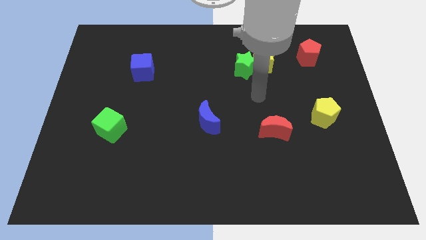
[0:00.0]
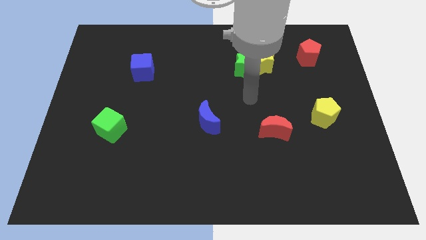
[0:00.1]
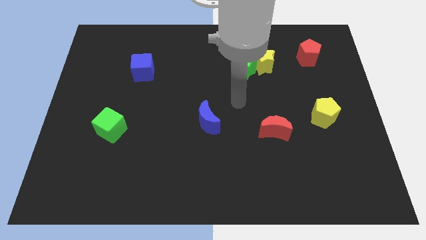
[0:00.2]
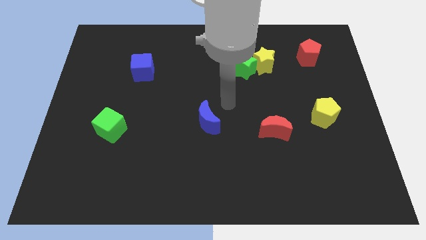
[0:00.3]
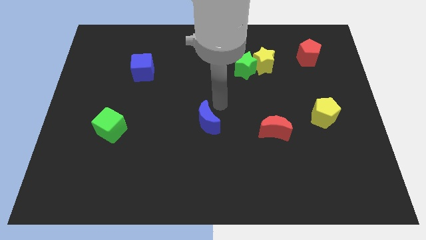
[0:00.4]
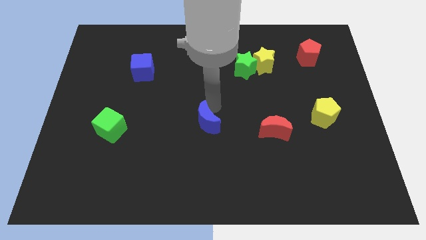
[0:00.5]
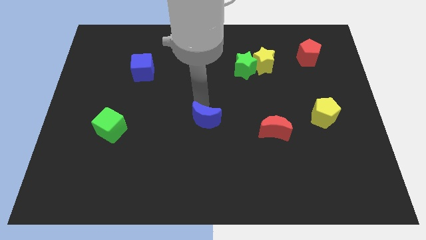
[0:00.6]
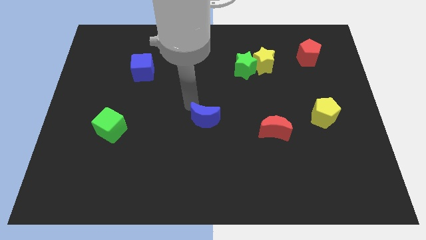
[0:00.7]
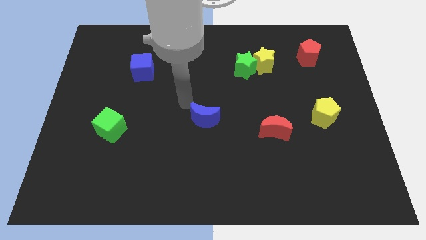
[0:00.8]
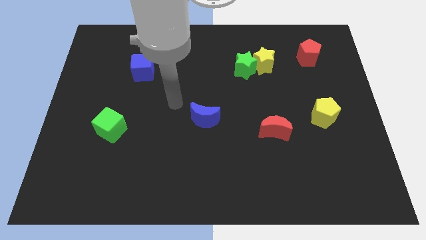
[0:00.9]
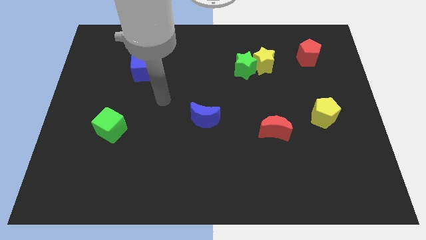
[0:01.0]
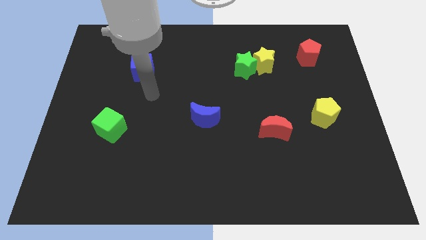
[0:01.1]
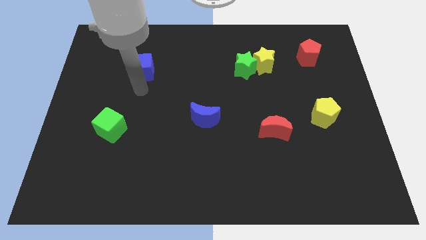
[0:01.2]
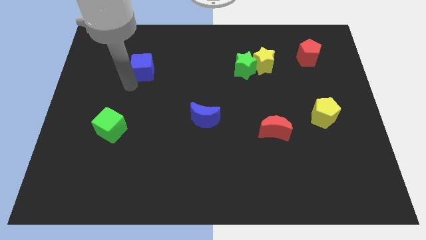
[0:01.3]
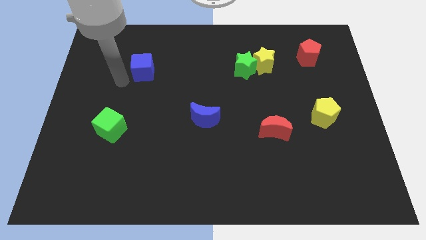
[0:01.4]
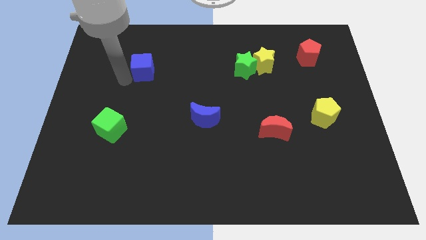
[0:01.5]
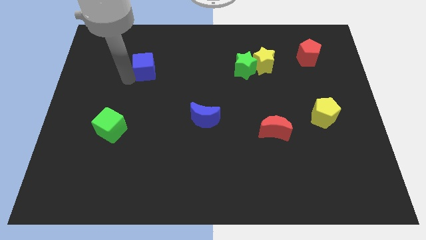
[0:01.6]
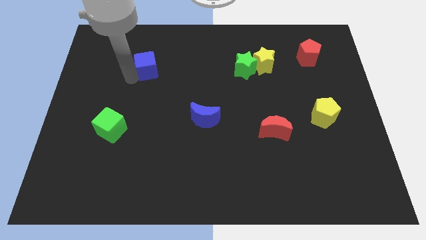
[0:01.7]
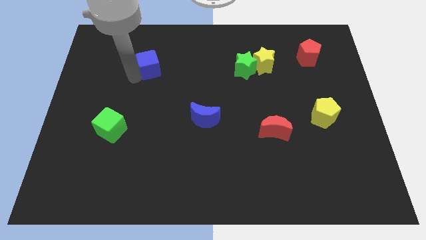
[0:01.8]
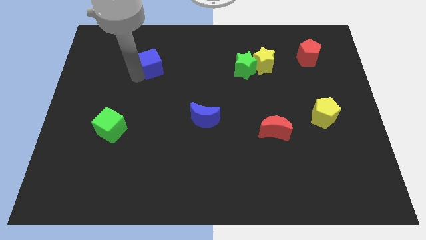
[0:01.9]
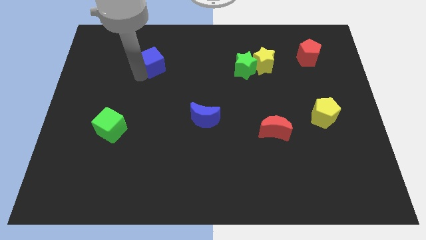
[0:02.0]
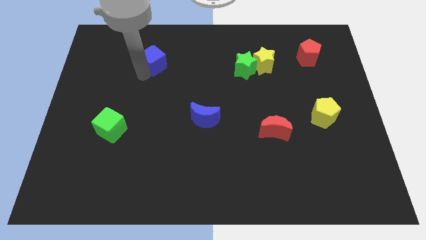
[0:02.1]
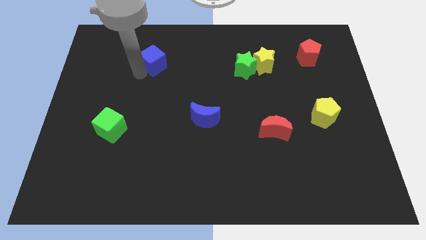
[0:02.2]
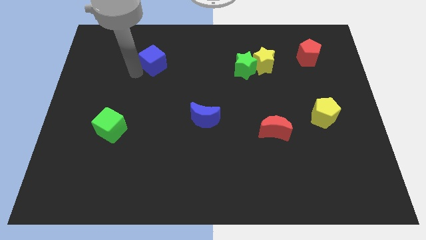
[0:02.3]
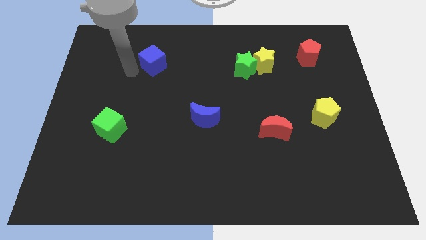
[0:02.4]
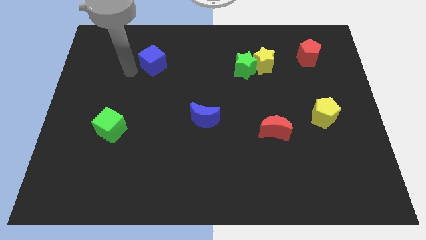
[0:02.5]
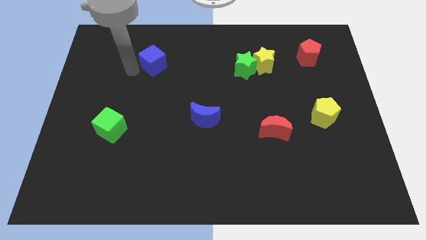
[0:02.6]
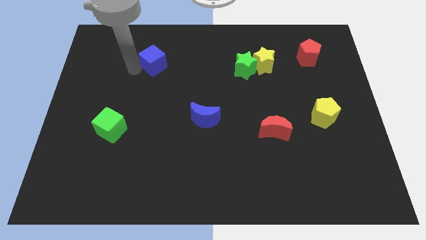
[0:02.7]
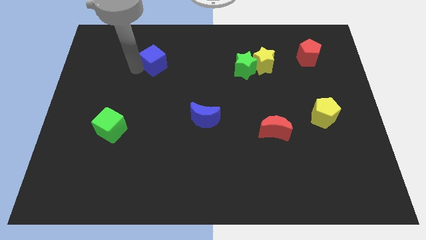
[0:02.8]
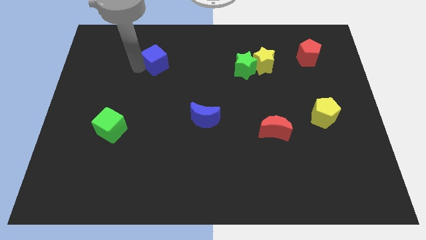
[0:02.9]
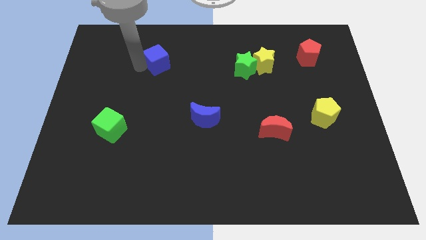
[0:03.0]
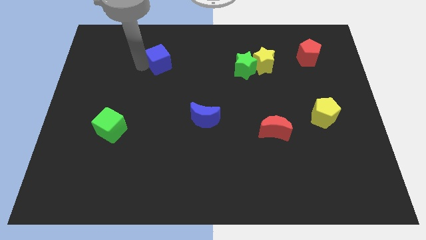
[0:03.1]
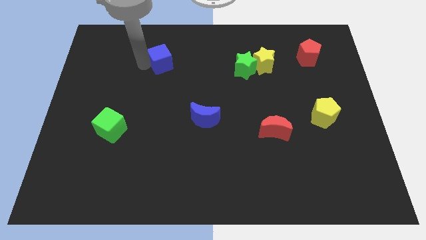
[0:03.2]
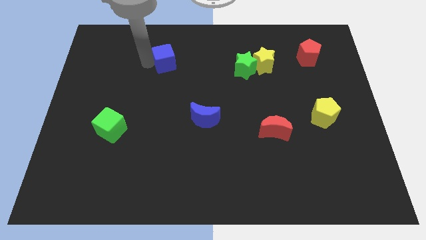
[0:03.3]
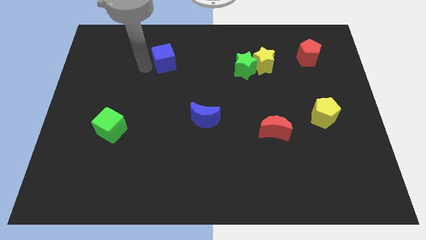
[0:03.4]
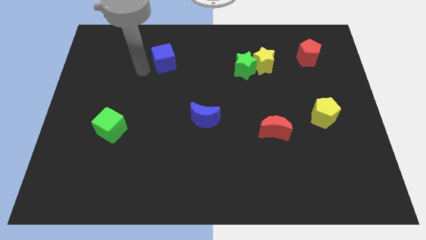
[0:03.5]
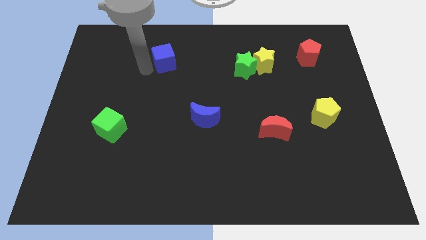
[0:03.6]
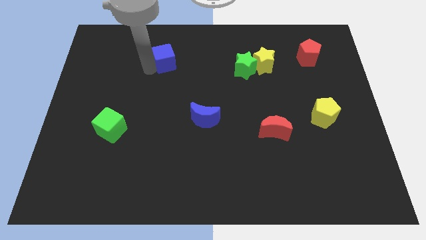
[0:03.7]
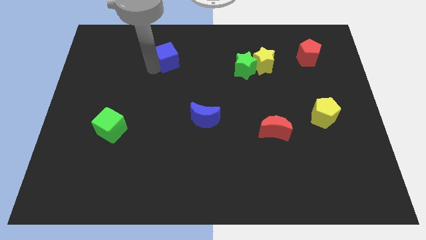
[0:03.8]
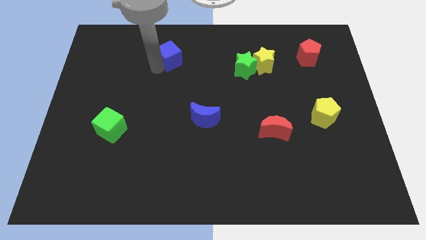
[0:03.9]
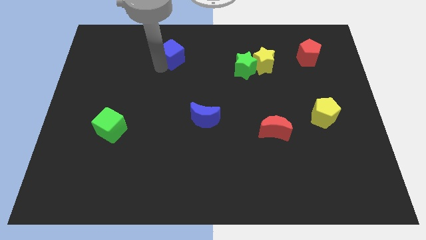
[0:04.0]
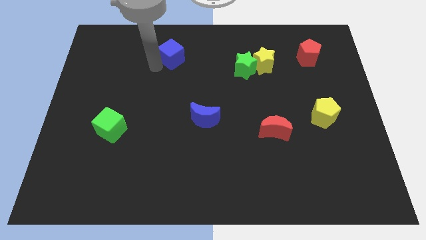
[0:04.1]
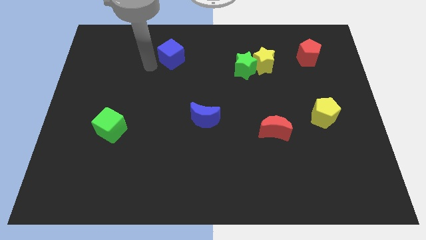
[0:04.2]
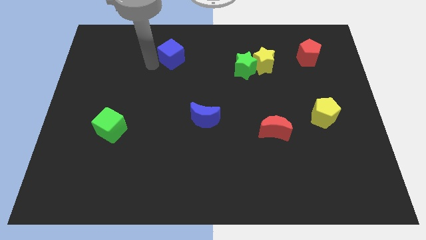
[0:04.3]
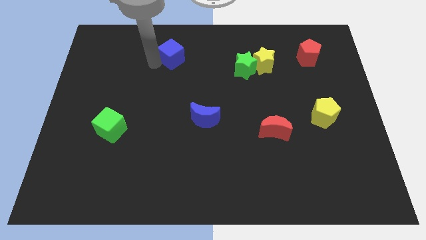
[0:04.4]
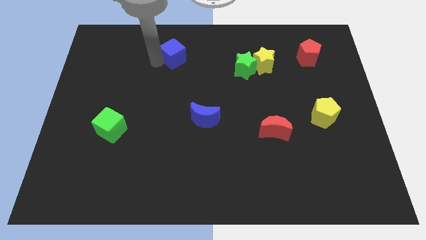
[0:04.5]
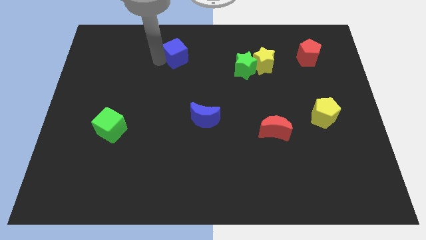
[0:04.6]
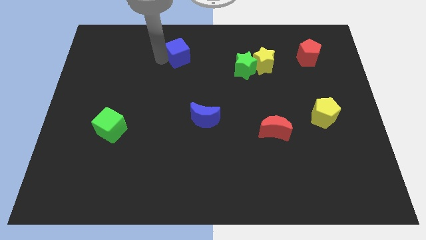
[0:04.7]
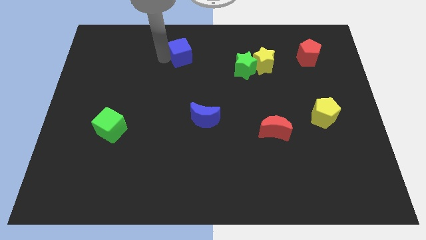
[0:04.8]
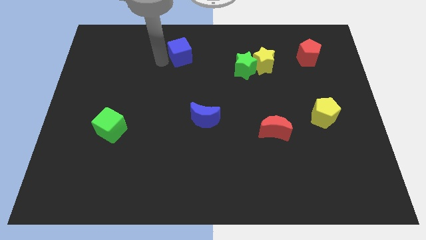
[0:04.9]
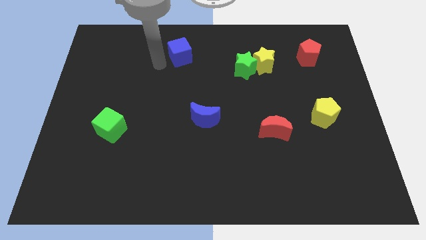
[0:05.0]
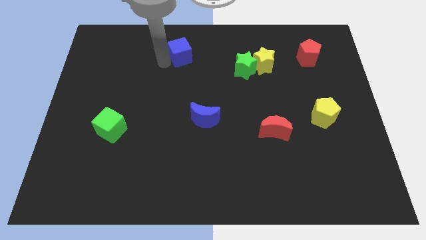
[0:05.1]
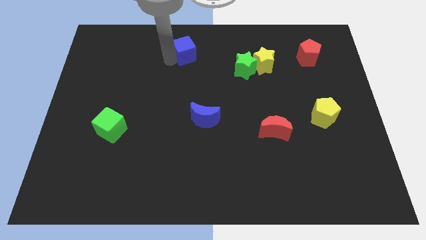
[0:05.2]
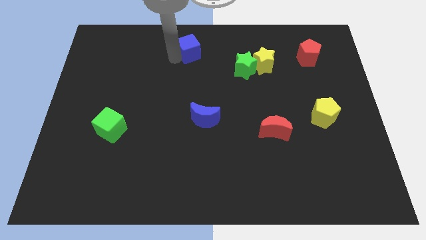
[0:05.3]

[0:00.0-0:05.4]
slide the blue cube to the towards your base

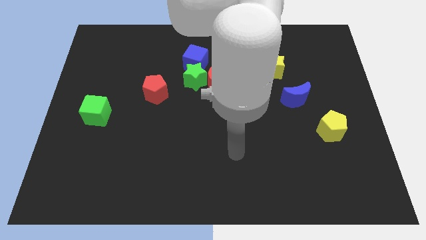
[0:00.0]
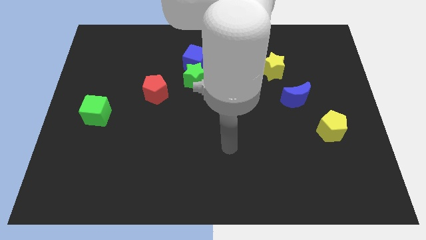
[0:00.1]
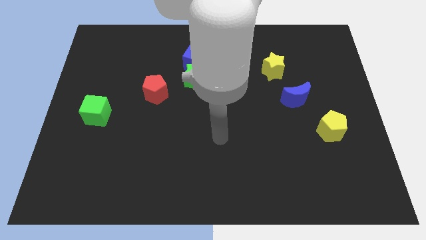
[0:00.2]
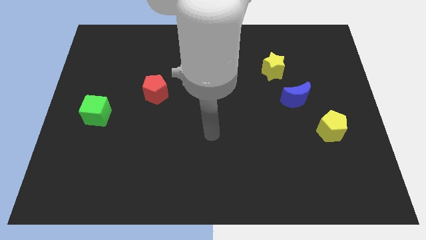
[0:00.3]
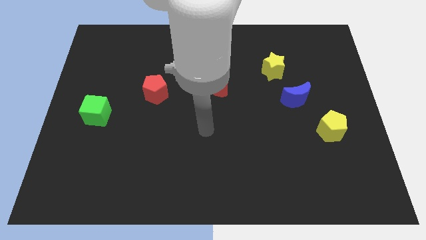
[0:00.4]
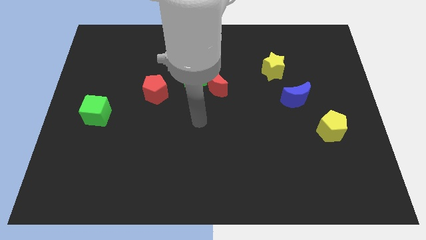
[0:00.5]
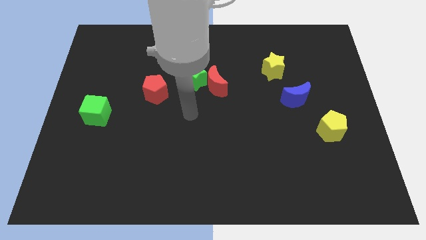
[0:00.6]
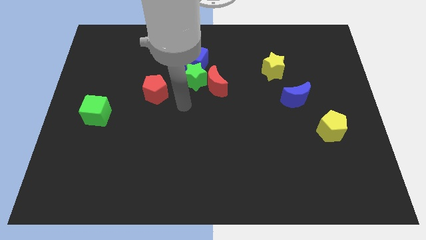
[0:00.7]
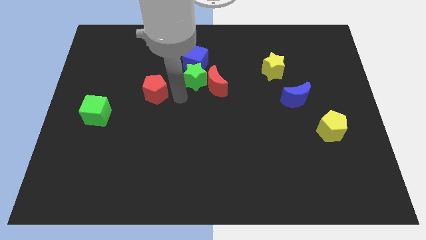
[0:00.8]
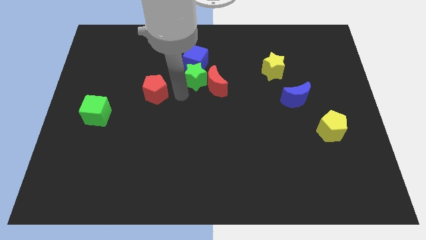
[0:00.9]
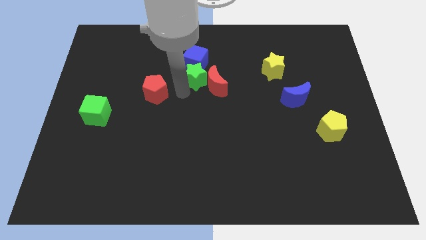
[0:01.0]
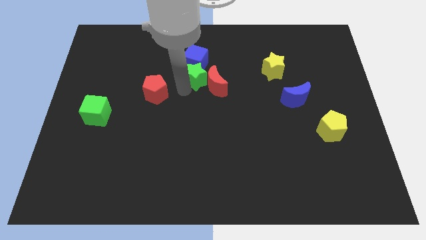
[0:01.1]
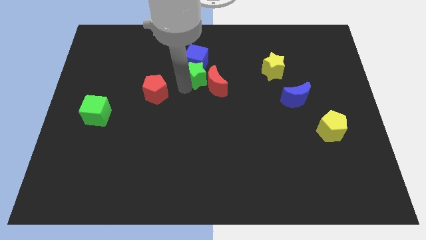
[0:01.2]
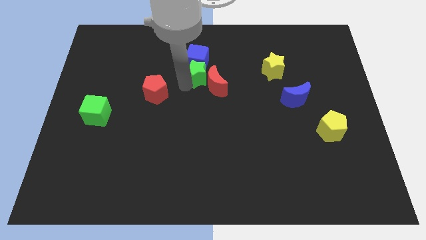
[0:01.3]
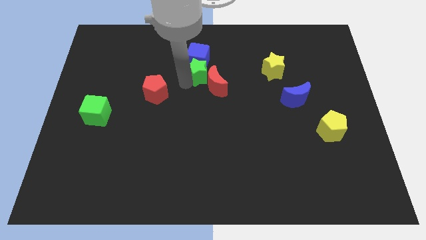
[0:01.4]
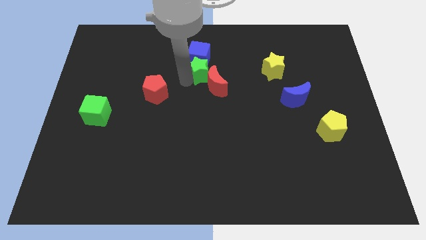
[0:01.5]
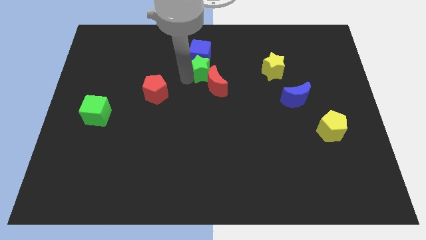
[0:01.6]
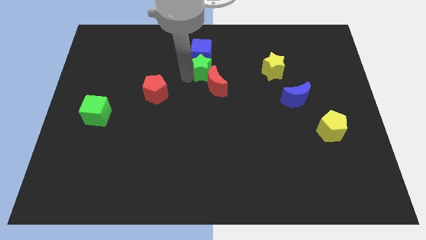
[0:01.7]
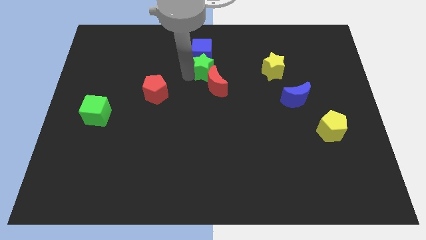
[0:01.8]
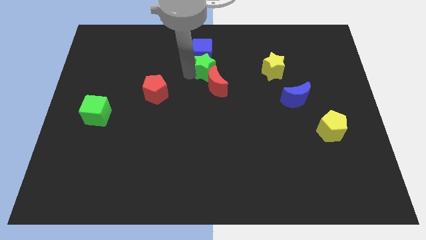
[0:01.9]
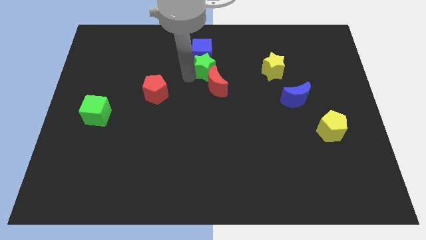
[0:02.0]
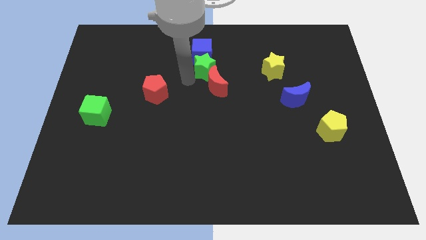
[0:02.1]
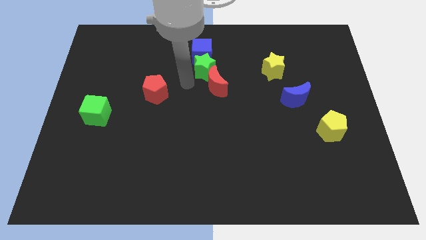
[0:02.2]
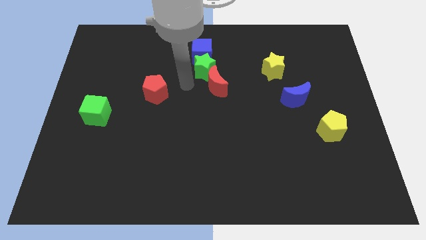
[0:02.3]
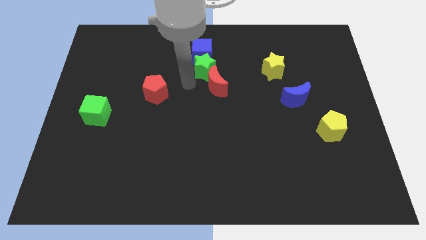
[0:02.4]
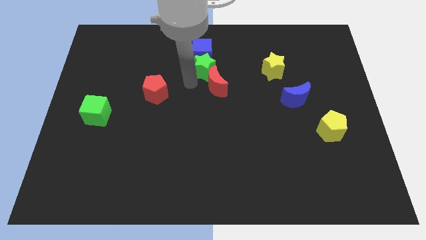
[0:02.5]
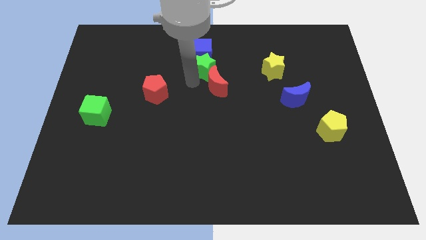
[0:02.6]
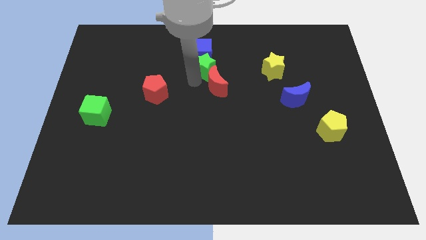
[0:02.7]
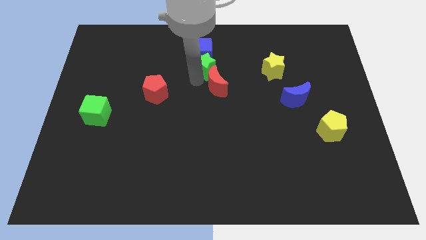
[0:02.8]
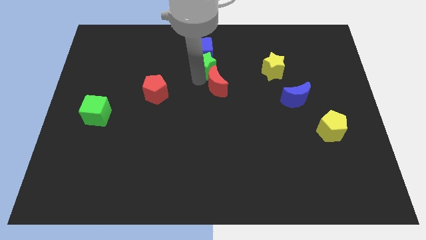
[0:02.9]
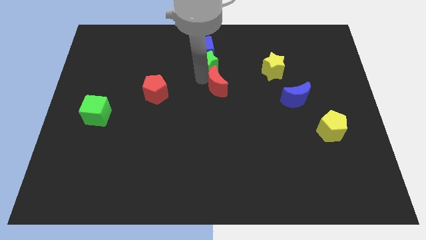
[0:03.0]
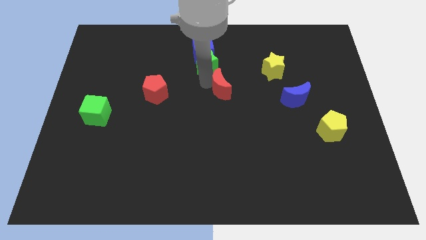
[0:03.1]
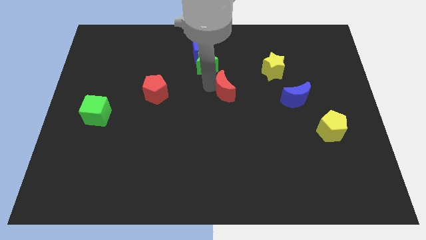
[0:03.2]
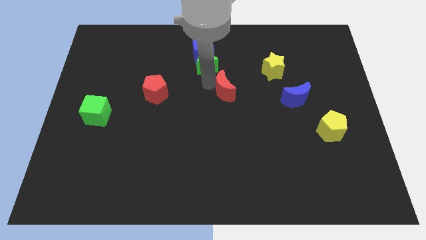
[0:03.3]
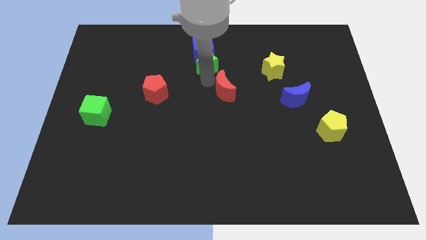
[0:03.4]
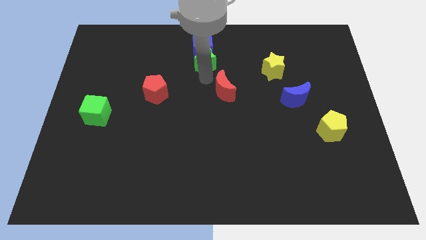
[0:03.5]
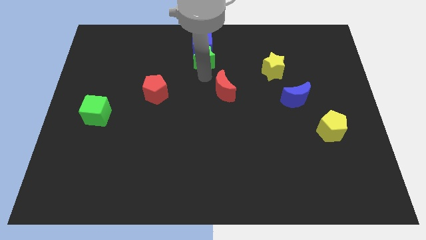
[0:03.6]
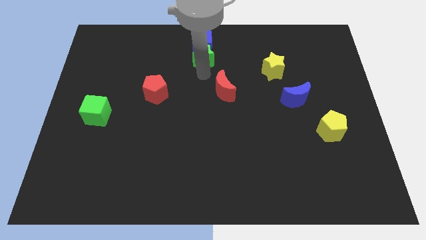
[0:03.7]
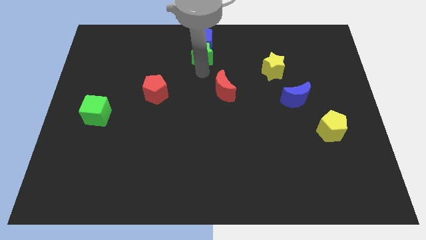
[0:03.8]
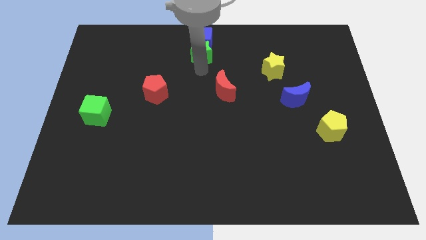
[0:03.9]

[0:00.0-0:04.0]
push the green star to the towards your base
